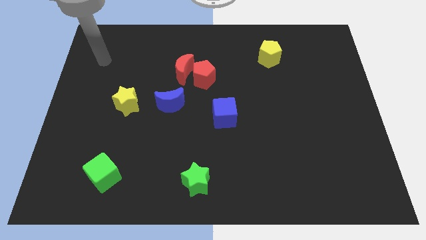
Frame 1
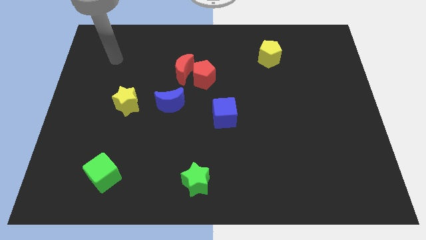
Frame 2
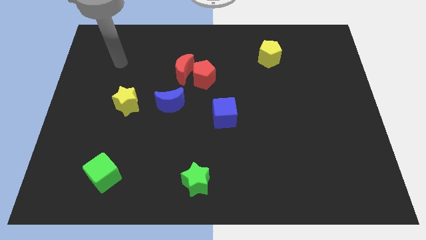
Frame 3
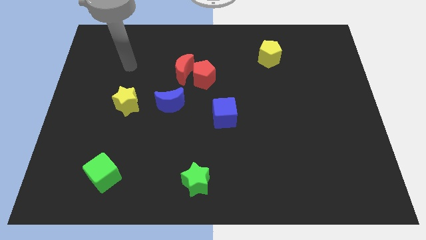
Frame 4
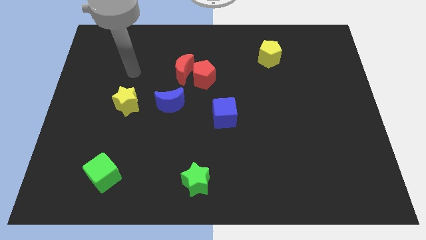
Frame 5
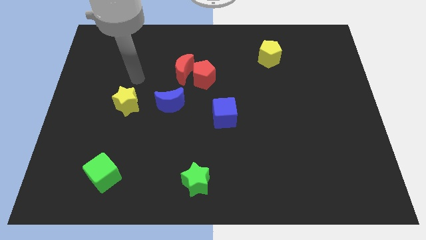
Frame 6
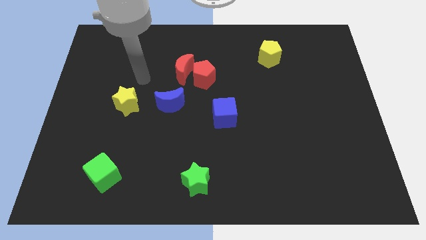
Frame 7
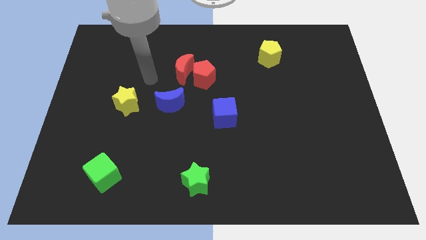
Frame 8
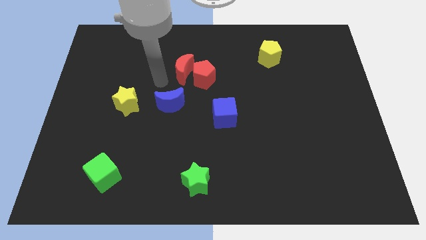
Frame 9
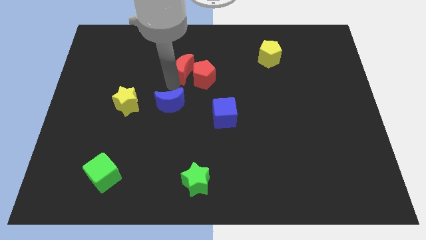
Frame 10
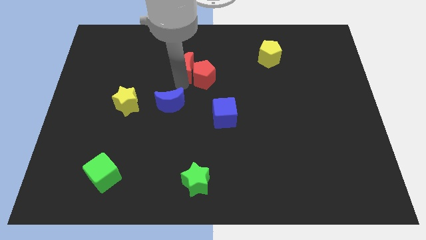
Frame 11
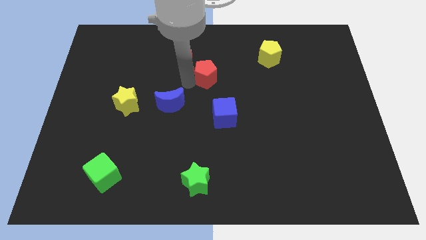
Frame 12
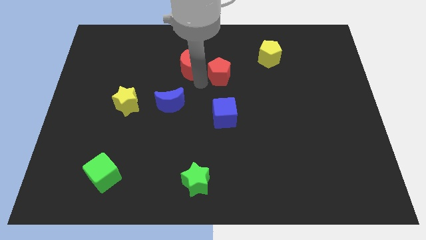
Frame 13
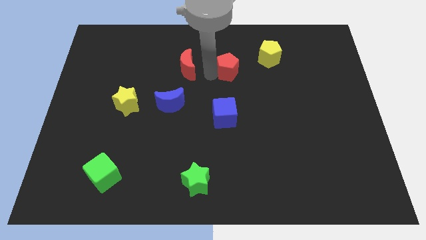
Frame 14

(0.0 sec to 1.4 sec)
pull the red moon apart from the red pentagon

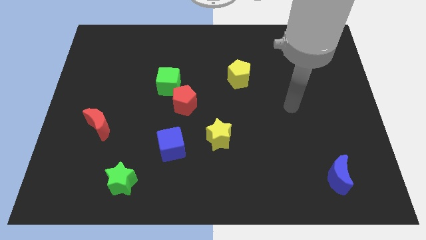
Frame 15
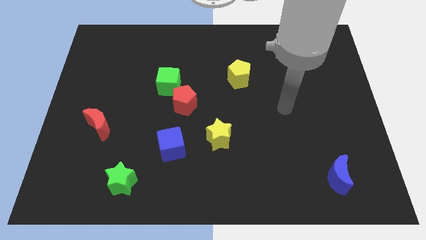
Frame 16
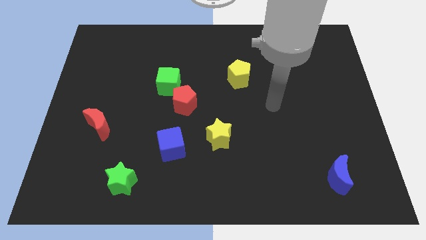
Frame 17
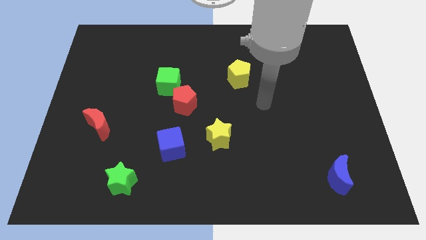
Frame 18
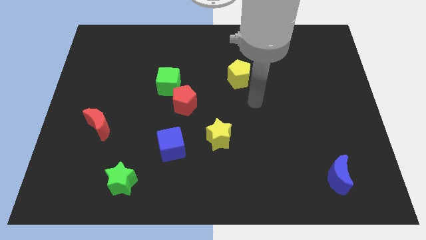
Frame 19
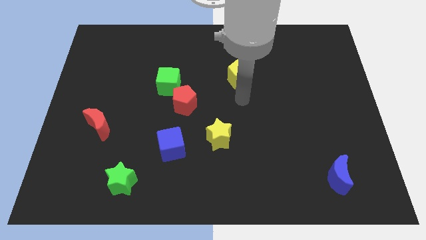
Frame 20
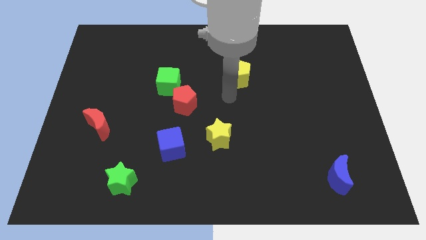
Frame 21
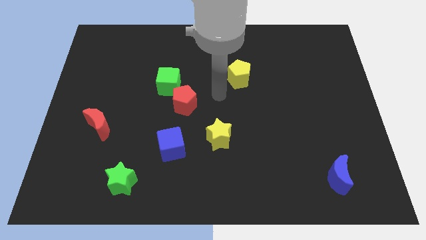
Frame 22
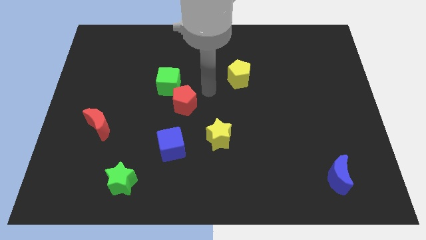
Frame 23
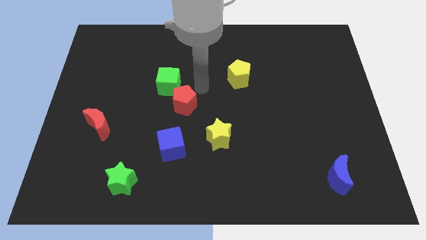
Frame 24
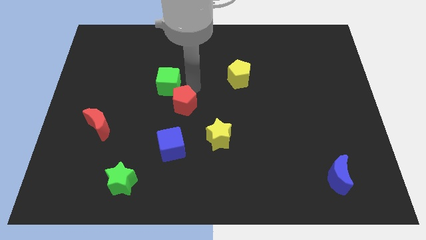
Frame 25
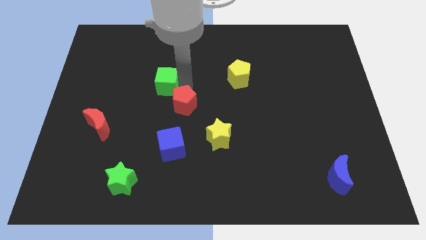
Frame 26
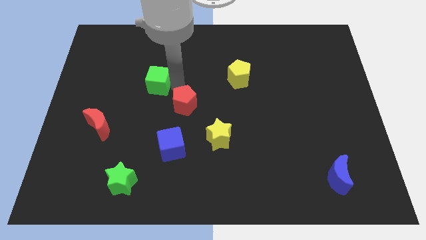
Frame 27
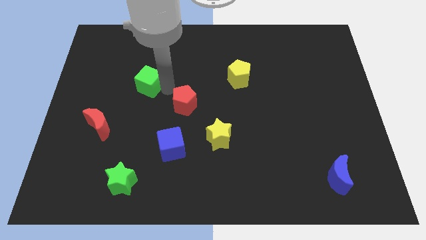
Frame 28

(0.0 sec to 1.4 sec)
pull the red pentagon apart from the green cube

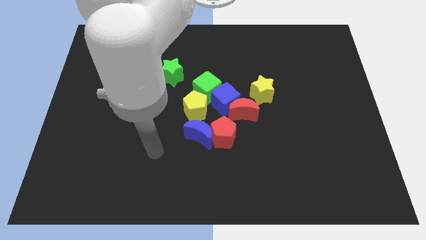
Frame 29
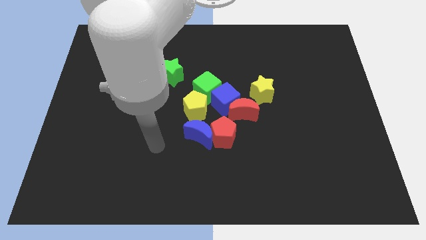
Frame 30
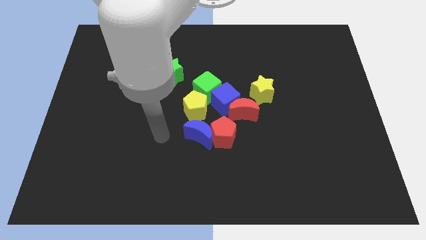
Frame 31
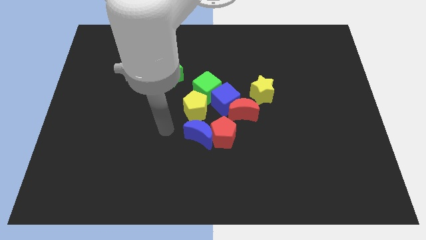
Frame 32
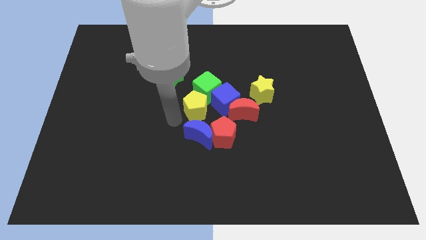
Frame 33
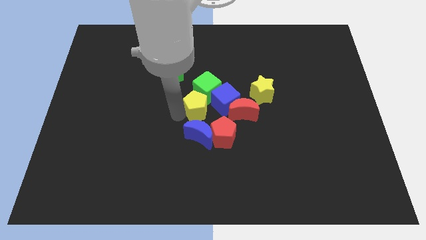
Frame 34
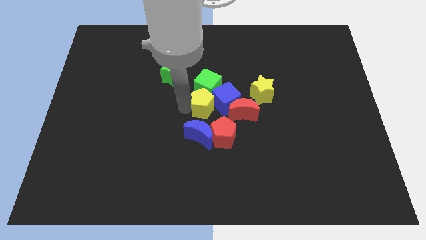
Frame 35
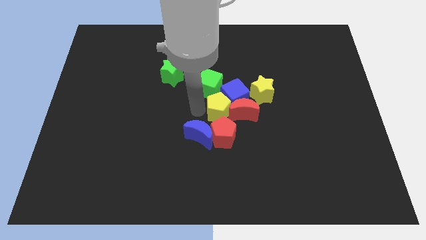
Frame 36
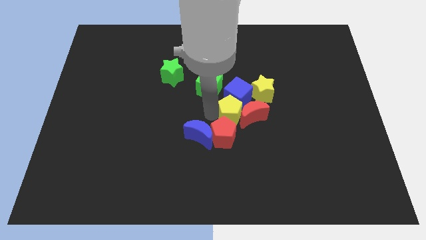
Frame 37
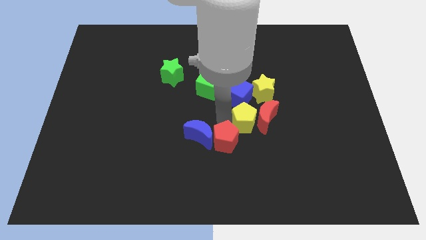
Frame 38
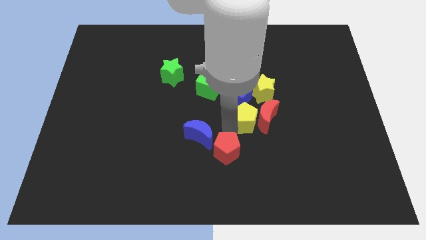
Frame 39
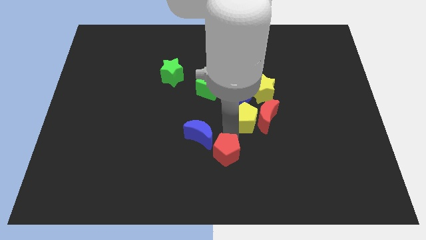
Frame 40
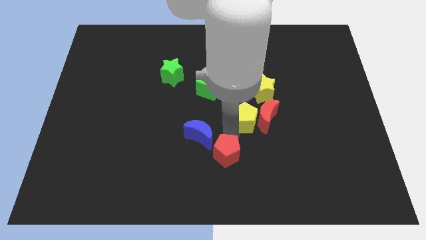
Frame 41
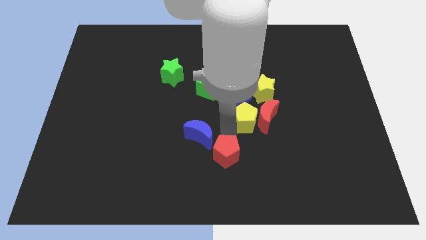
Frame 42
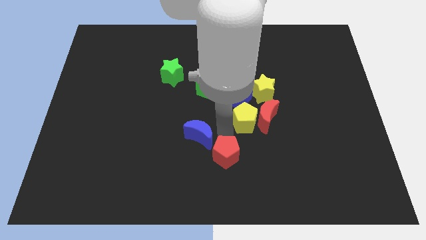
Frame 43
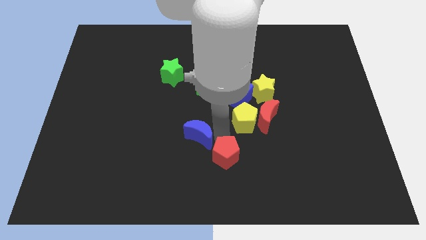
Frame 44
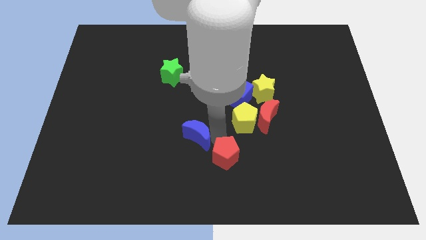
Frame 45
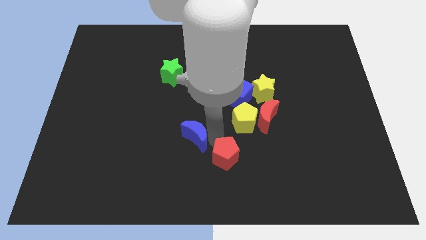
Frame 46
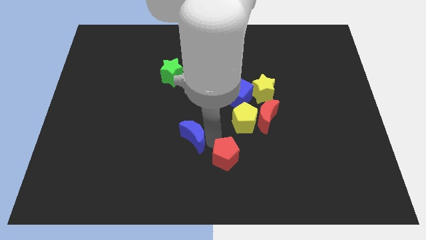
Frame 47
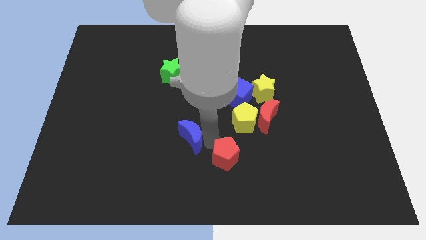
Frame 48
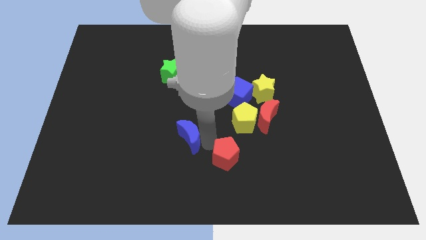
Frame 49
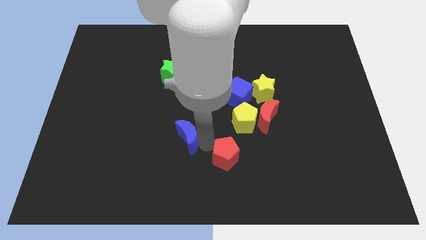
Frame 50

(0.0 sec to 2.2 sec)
pull the blue moon apart from the red pentagon and yellow pentagon

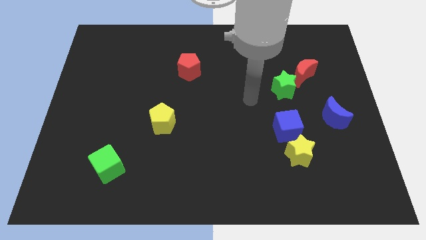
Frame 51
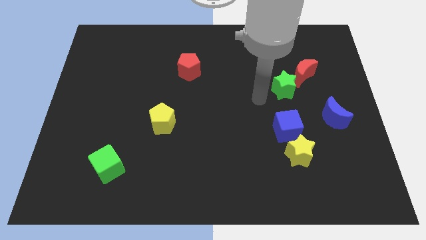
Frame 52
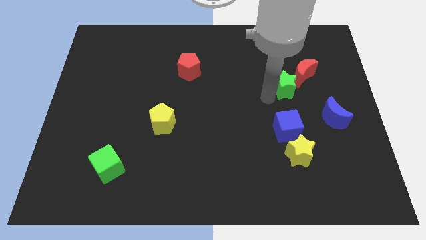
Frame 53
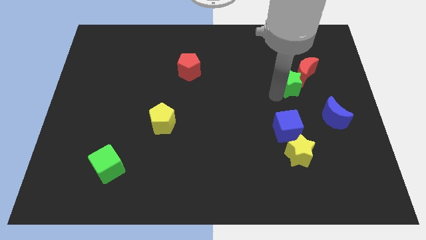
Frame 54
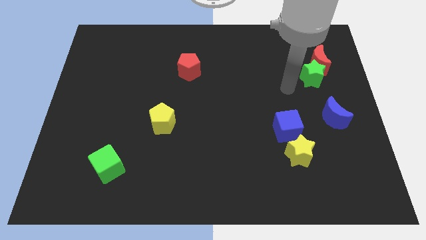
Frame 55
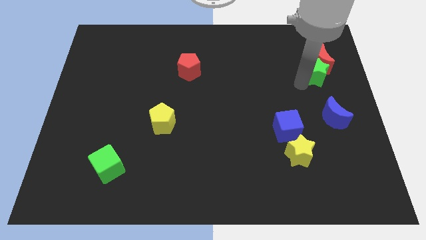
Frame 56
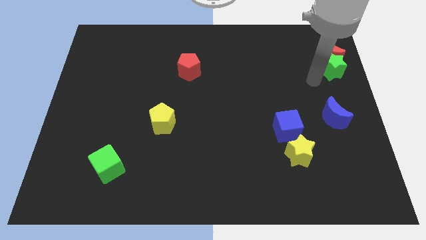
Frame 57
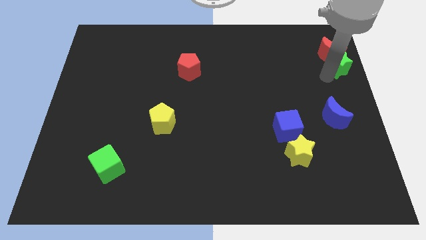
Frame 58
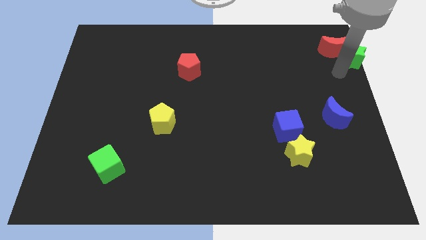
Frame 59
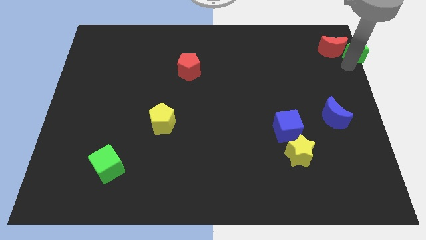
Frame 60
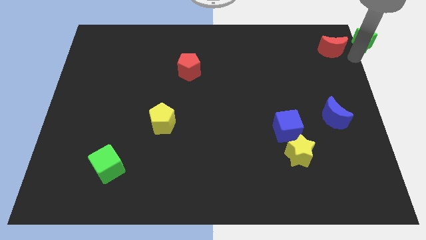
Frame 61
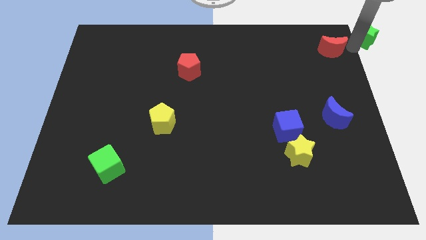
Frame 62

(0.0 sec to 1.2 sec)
pull the red moon apart from the green star

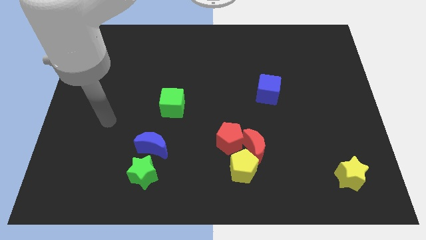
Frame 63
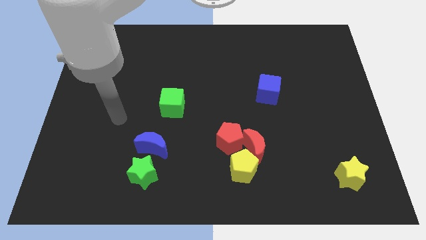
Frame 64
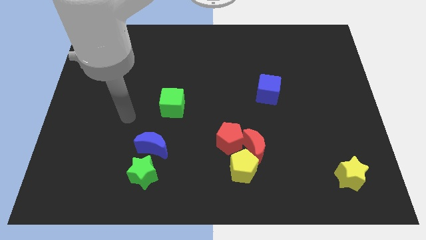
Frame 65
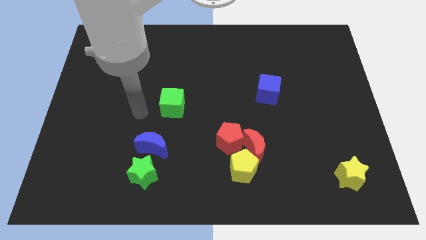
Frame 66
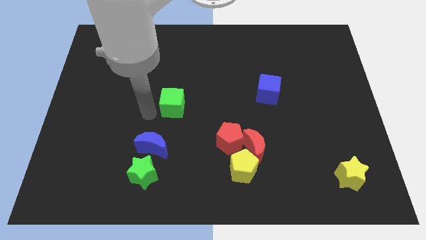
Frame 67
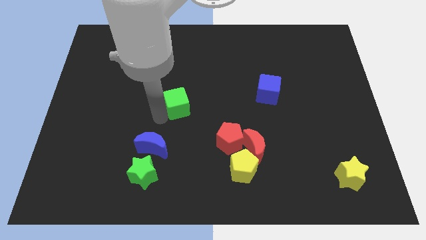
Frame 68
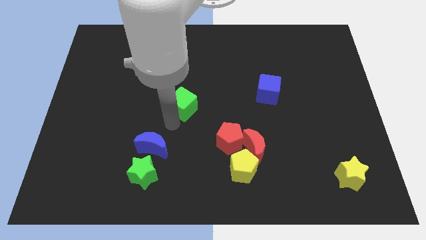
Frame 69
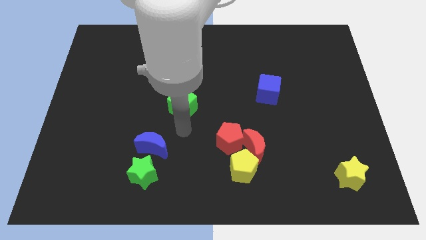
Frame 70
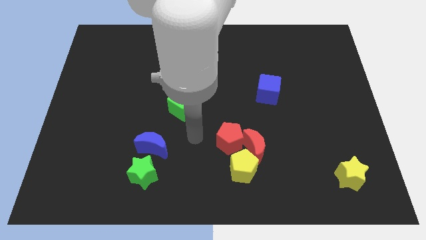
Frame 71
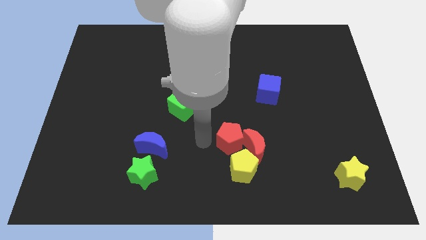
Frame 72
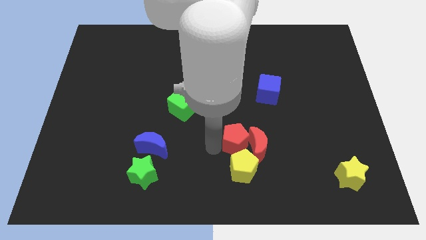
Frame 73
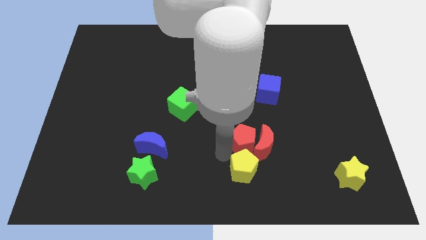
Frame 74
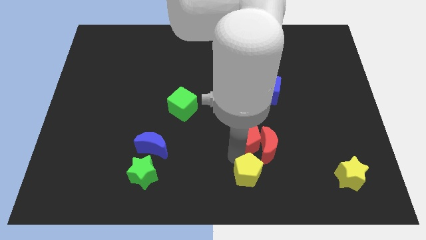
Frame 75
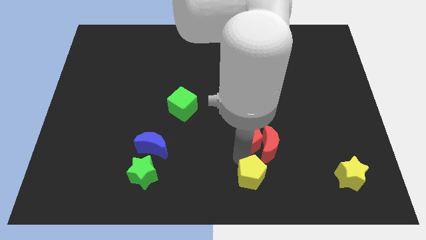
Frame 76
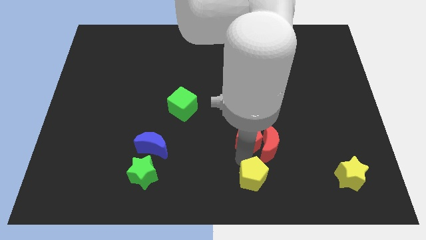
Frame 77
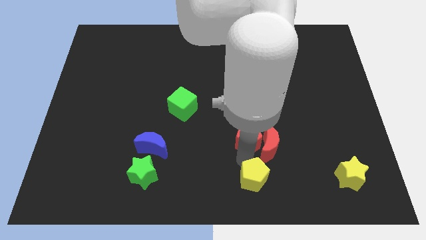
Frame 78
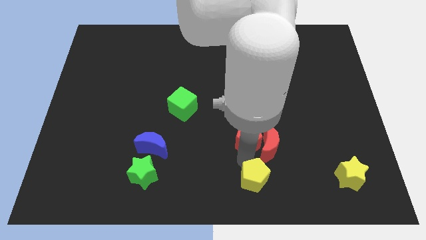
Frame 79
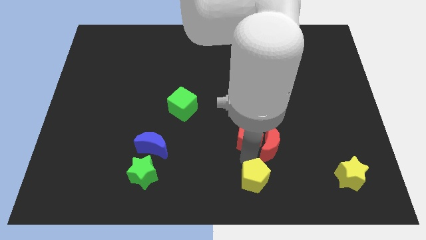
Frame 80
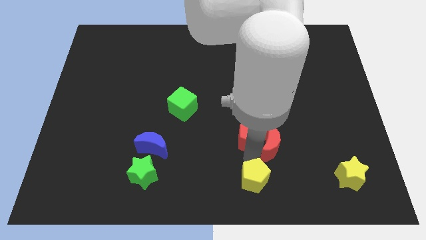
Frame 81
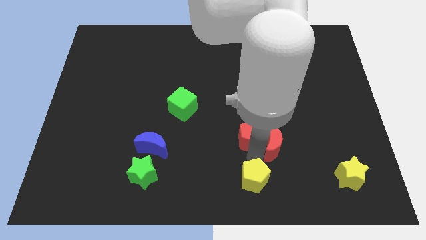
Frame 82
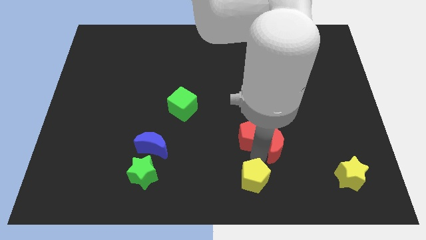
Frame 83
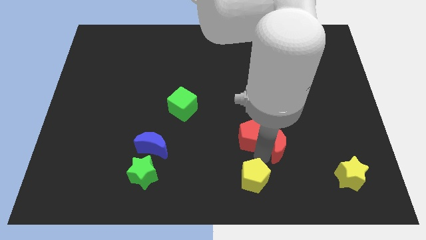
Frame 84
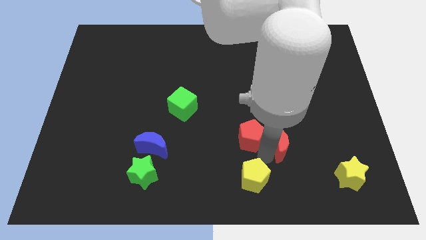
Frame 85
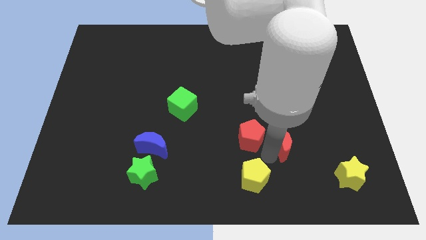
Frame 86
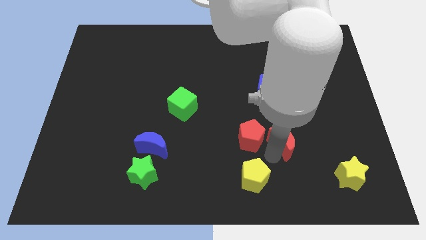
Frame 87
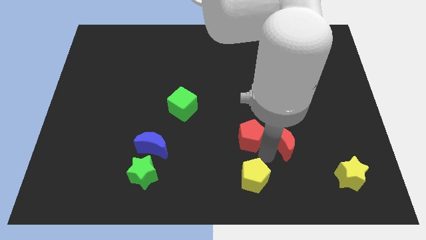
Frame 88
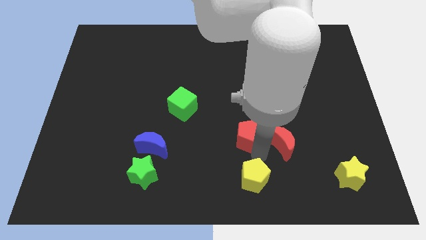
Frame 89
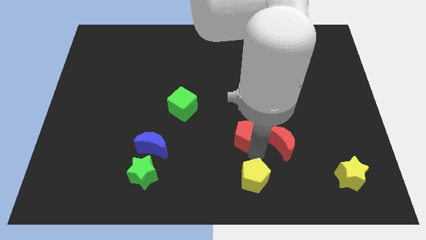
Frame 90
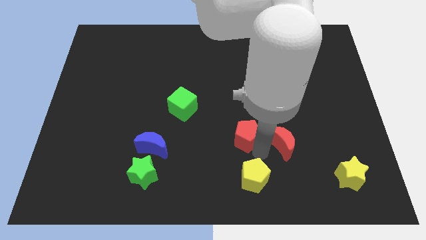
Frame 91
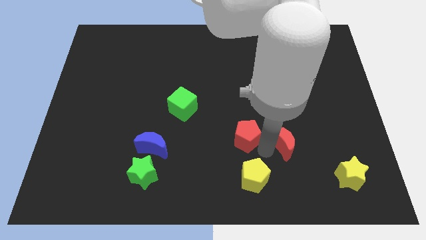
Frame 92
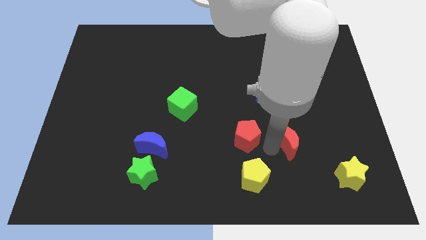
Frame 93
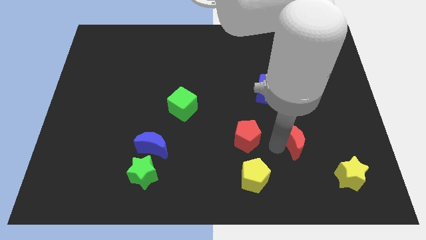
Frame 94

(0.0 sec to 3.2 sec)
move the red moon away from the yellow pentagon and red pentagon
